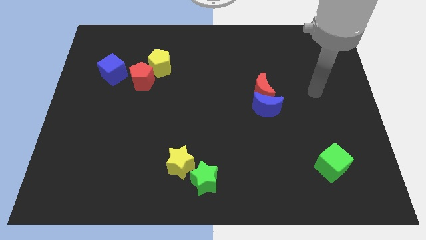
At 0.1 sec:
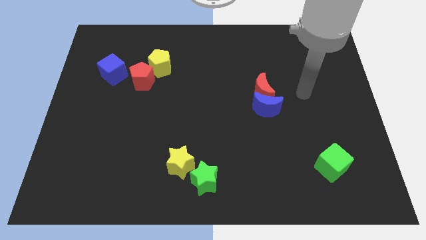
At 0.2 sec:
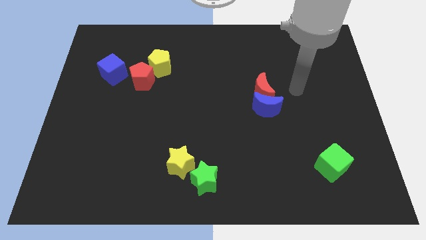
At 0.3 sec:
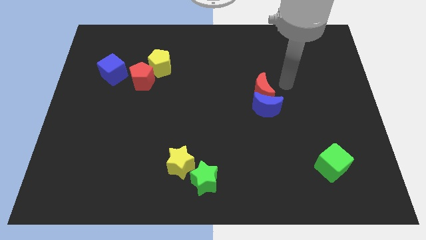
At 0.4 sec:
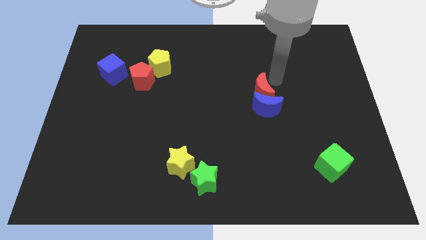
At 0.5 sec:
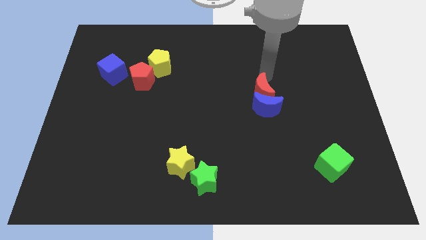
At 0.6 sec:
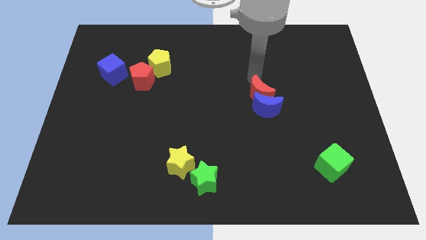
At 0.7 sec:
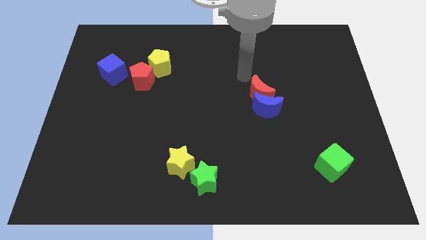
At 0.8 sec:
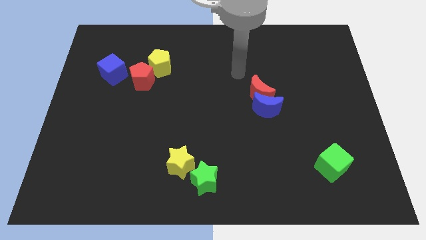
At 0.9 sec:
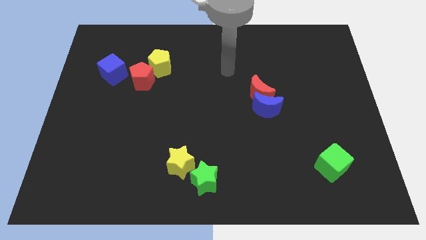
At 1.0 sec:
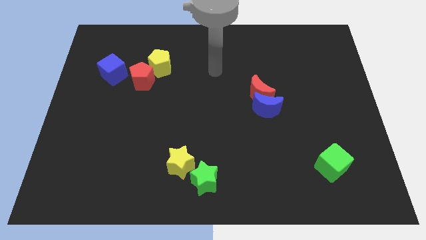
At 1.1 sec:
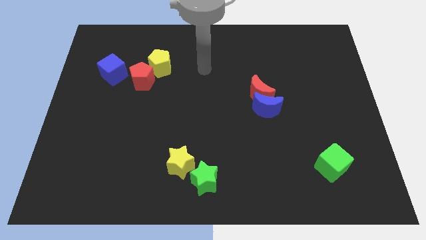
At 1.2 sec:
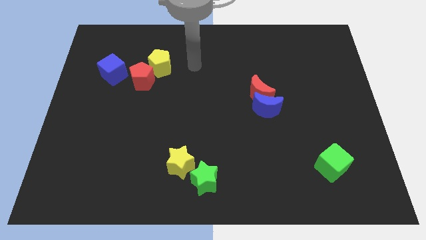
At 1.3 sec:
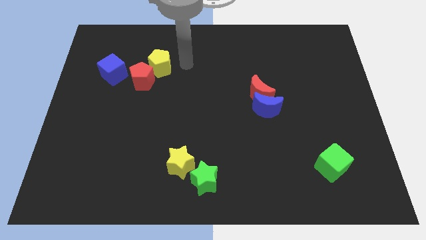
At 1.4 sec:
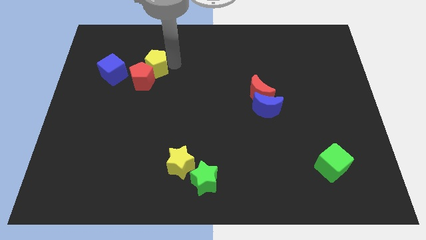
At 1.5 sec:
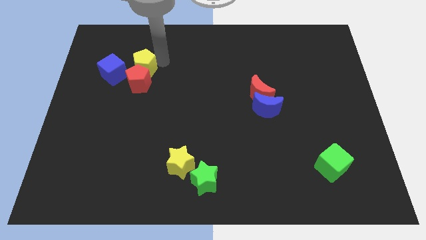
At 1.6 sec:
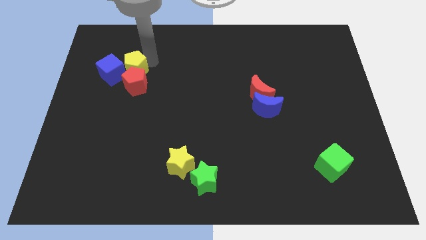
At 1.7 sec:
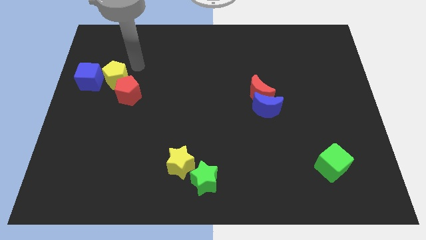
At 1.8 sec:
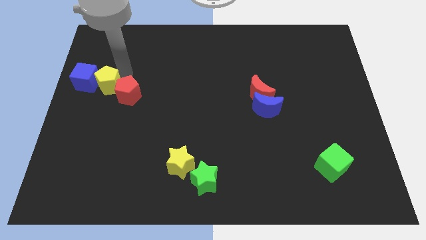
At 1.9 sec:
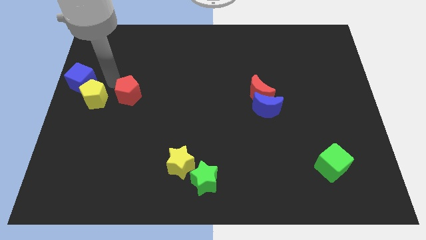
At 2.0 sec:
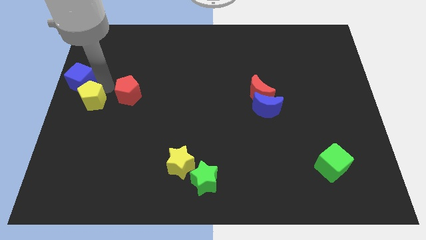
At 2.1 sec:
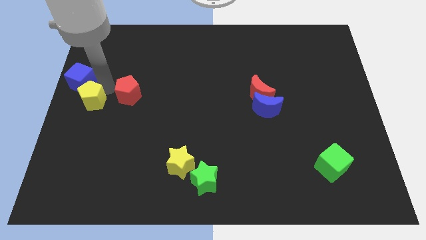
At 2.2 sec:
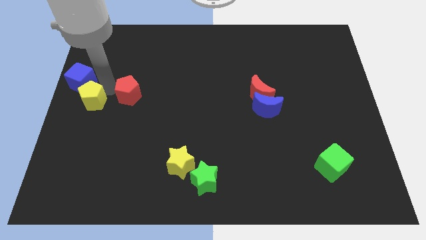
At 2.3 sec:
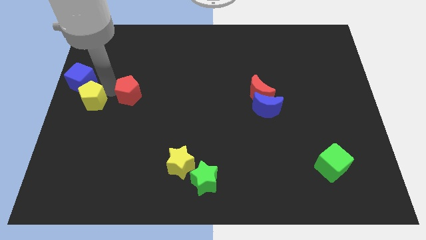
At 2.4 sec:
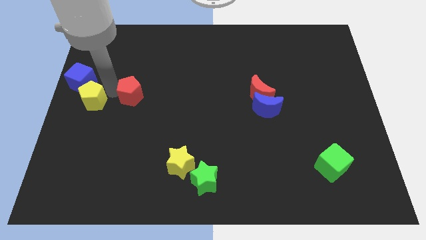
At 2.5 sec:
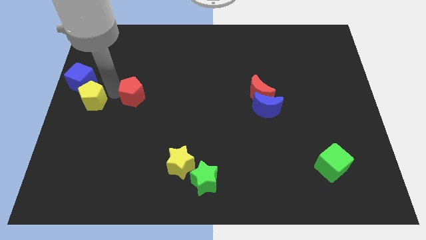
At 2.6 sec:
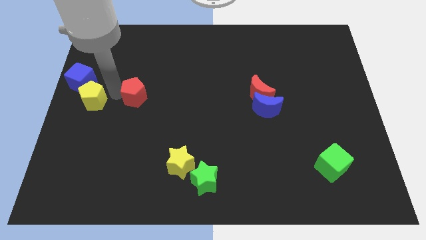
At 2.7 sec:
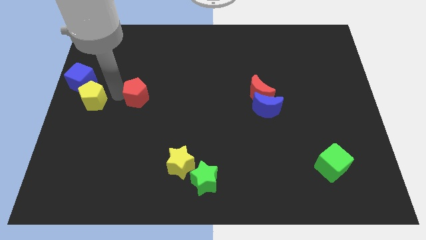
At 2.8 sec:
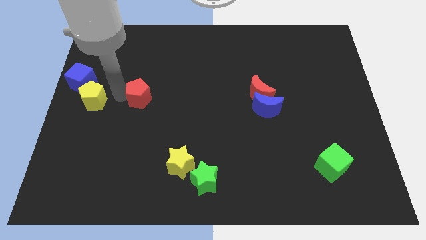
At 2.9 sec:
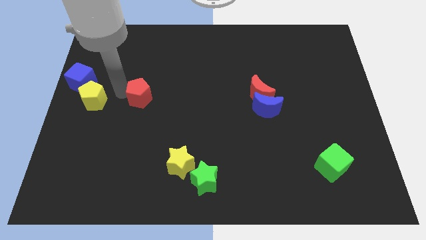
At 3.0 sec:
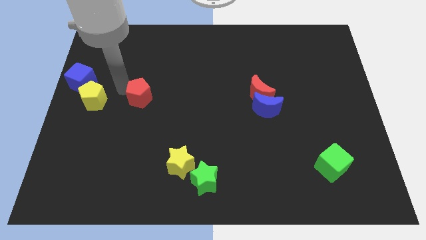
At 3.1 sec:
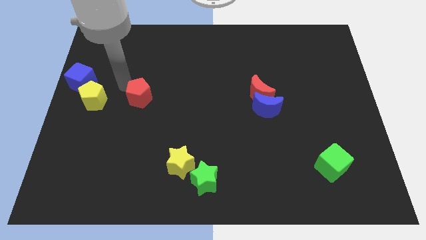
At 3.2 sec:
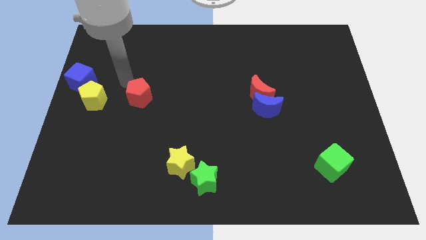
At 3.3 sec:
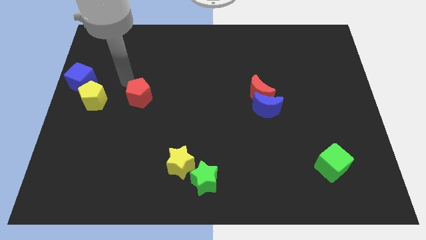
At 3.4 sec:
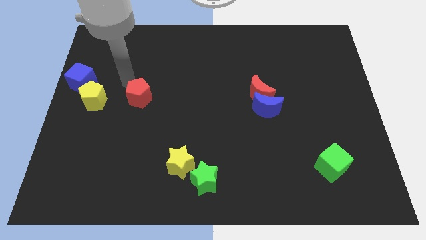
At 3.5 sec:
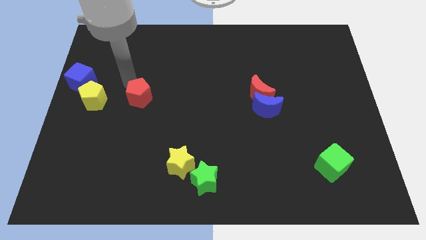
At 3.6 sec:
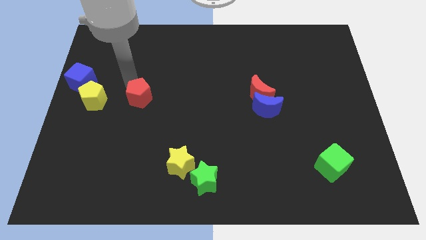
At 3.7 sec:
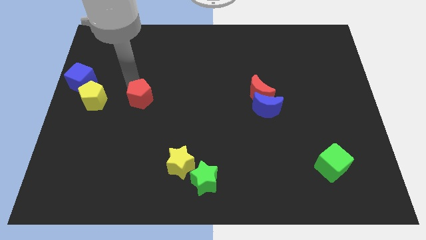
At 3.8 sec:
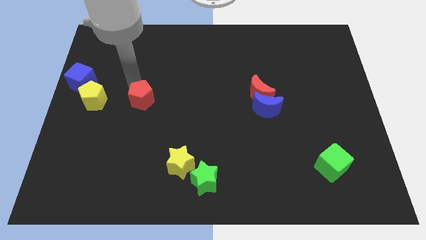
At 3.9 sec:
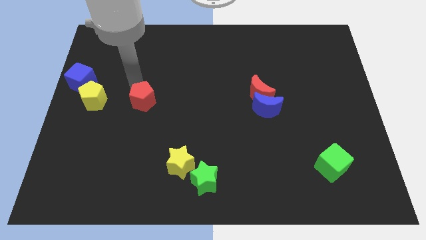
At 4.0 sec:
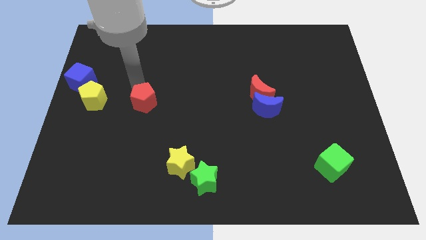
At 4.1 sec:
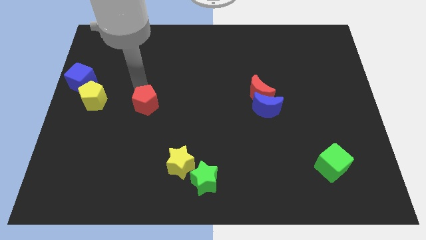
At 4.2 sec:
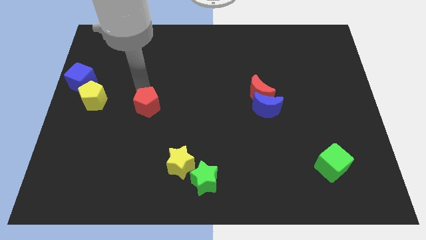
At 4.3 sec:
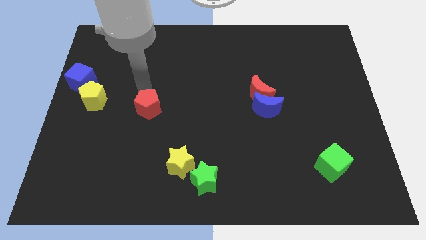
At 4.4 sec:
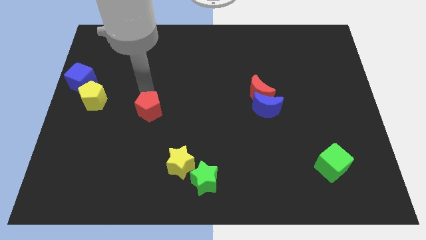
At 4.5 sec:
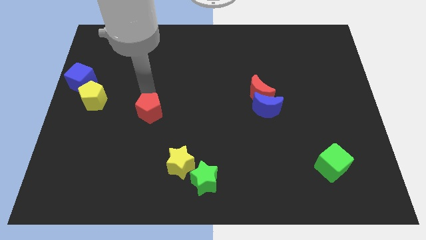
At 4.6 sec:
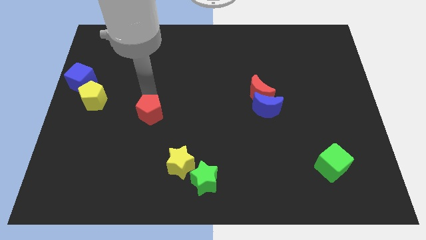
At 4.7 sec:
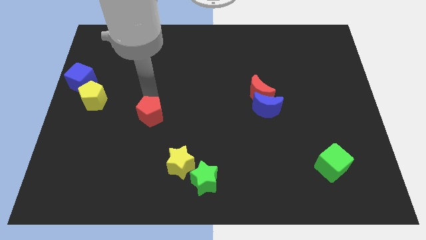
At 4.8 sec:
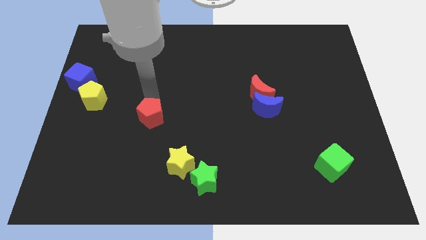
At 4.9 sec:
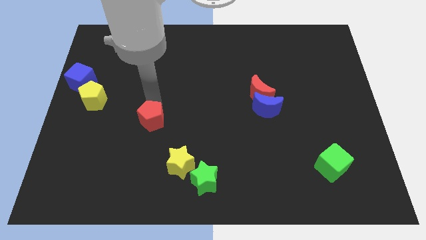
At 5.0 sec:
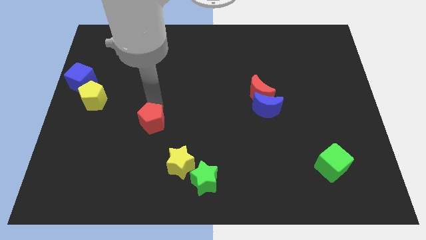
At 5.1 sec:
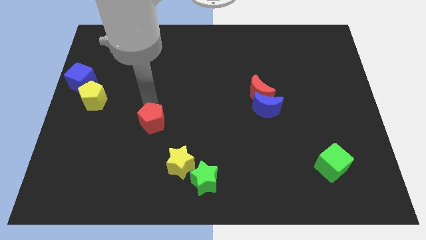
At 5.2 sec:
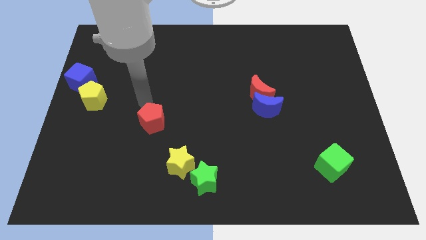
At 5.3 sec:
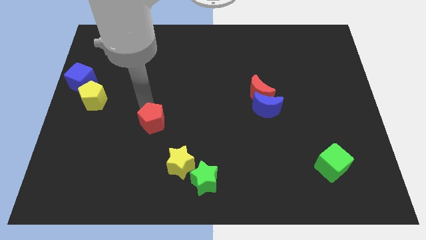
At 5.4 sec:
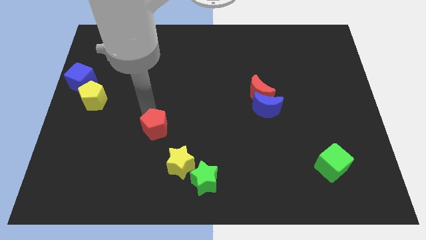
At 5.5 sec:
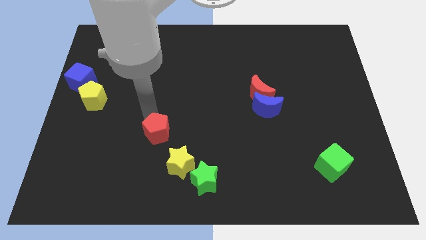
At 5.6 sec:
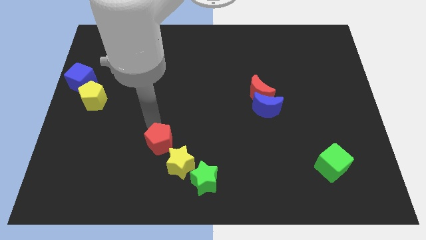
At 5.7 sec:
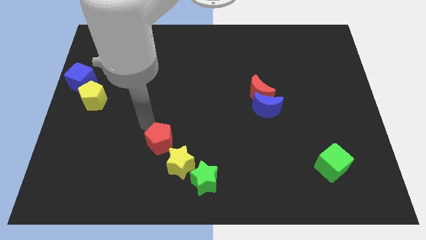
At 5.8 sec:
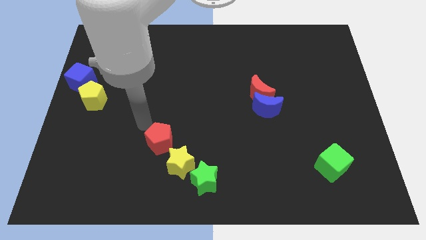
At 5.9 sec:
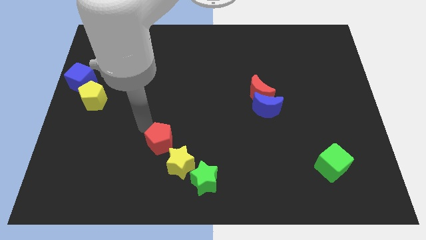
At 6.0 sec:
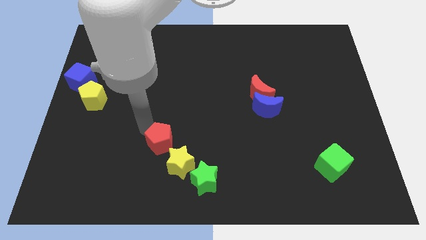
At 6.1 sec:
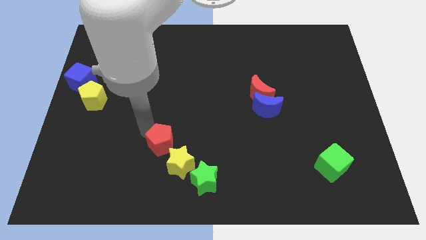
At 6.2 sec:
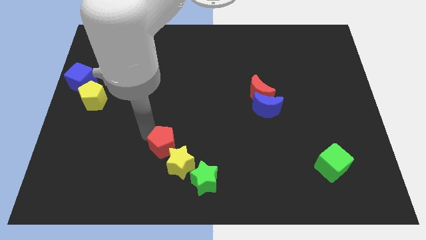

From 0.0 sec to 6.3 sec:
push the red pentagon towards the yellow star

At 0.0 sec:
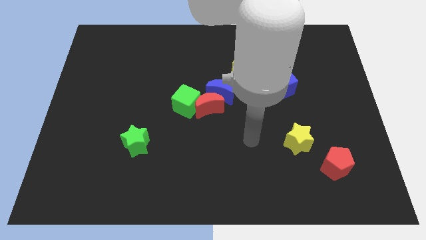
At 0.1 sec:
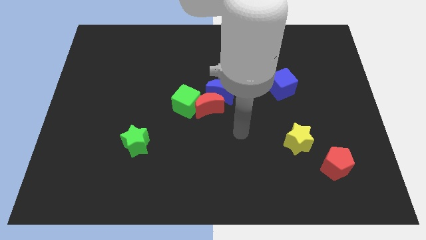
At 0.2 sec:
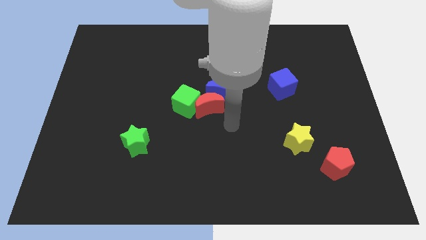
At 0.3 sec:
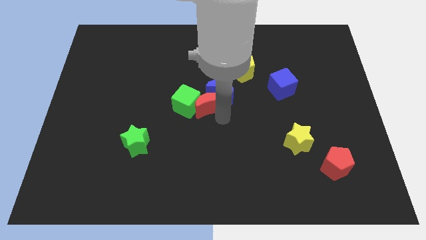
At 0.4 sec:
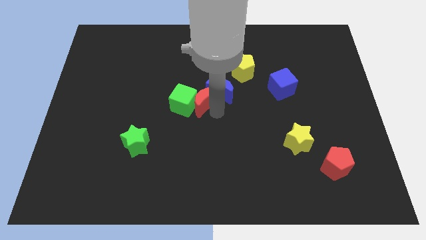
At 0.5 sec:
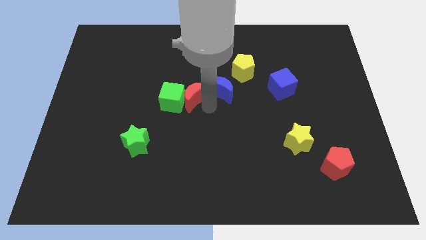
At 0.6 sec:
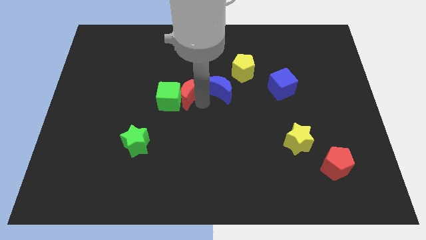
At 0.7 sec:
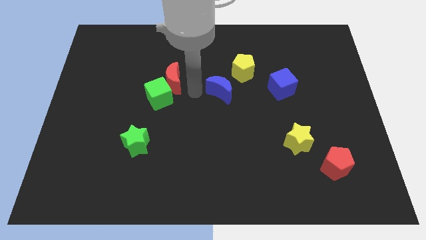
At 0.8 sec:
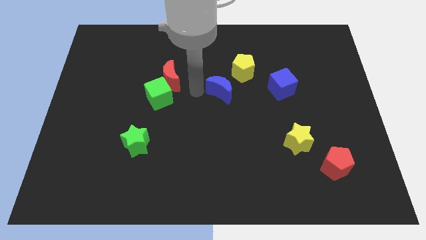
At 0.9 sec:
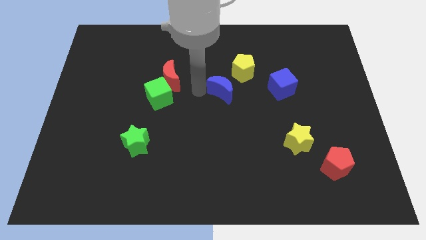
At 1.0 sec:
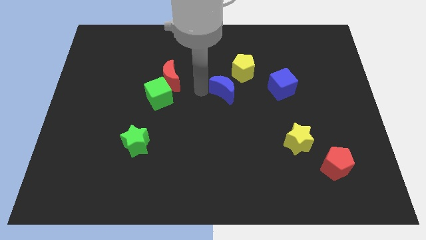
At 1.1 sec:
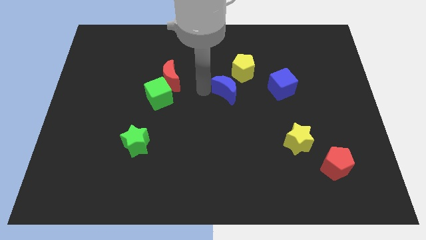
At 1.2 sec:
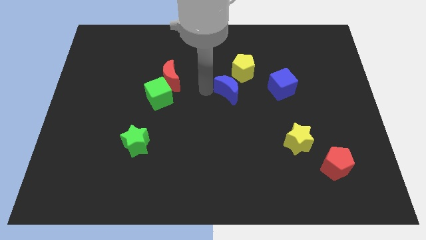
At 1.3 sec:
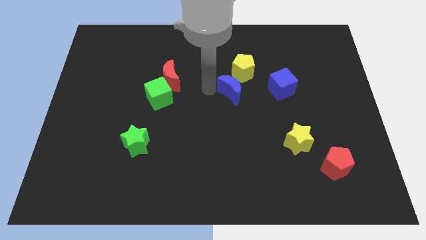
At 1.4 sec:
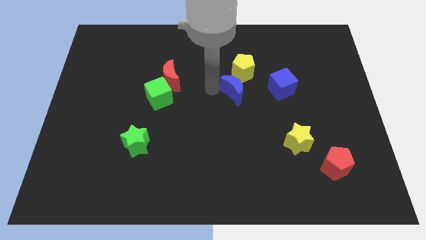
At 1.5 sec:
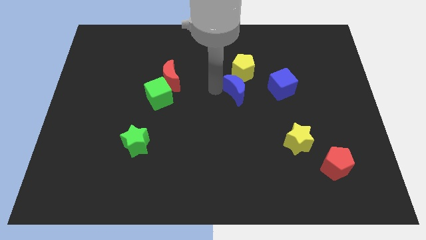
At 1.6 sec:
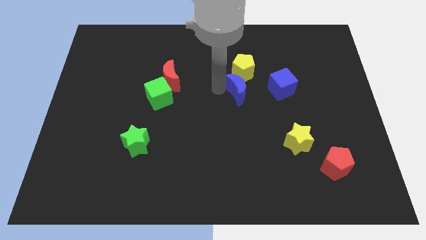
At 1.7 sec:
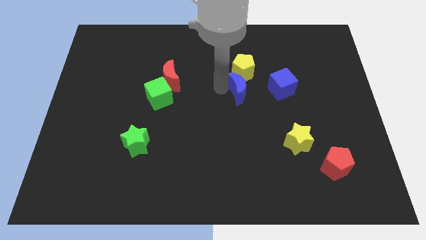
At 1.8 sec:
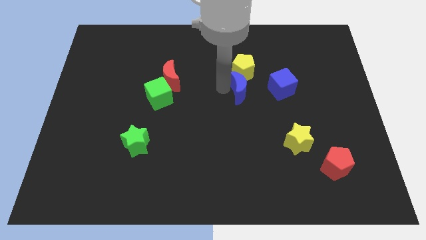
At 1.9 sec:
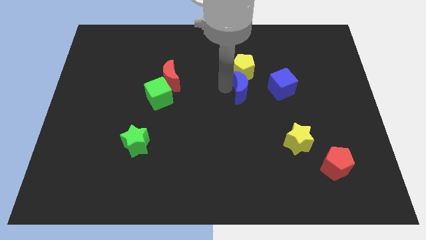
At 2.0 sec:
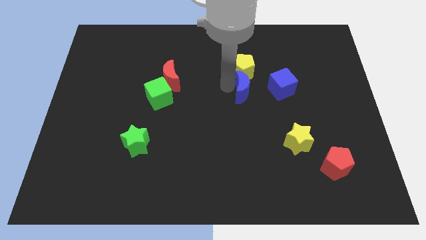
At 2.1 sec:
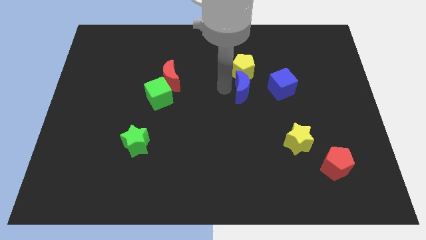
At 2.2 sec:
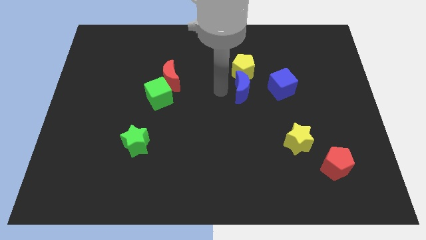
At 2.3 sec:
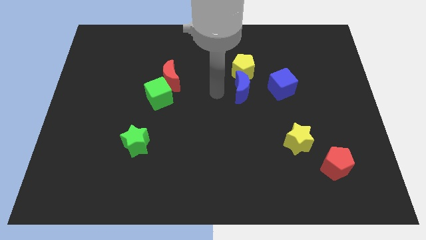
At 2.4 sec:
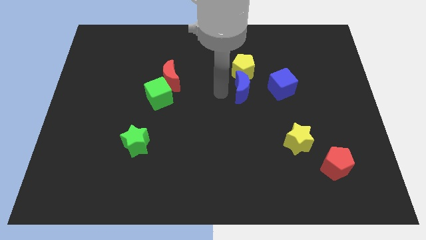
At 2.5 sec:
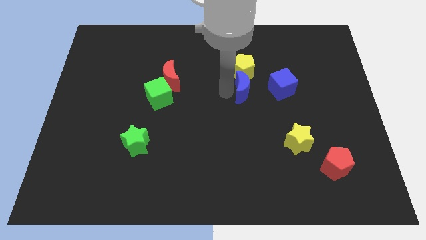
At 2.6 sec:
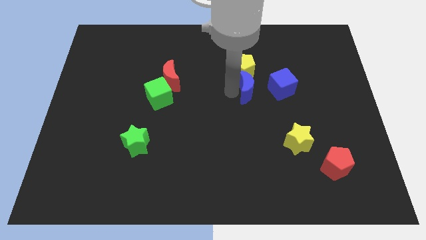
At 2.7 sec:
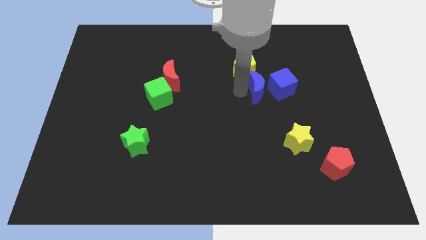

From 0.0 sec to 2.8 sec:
put the blue moon towards the blue cube
